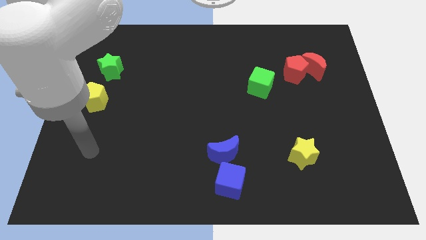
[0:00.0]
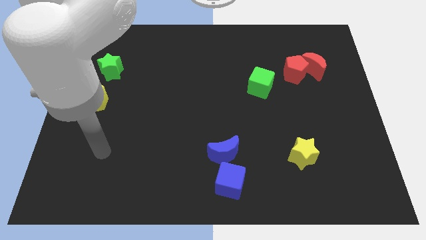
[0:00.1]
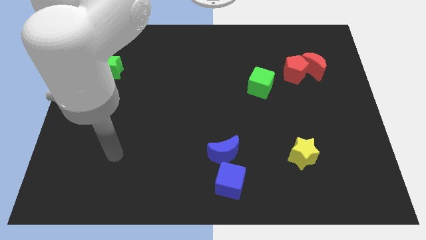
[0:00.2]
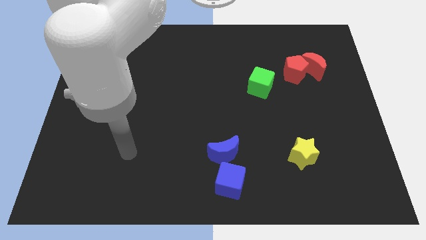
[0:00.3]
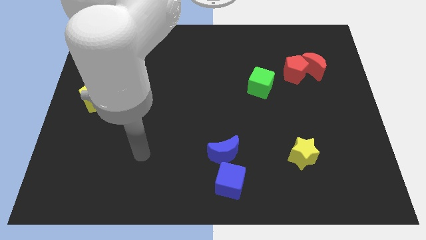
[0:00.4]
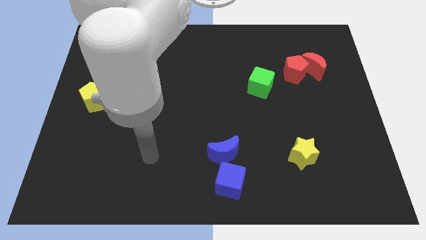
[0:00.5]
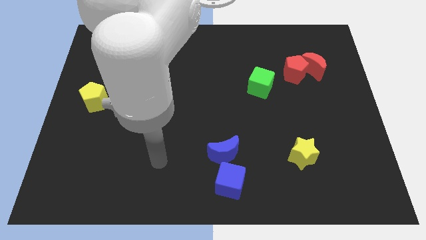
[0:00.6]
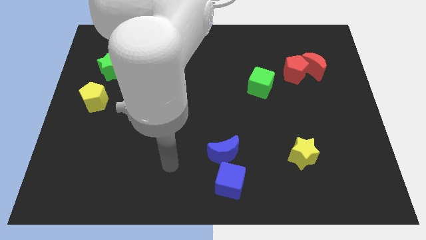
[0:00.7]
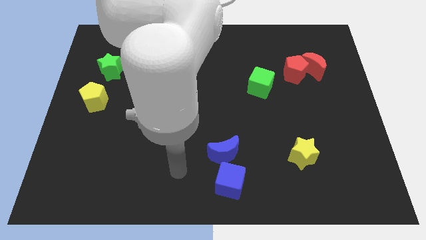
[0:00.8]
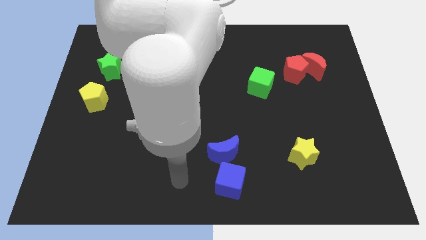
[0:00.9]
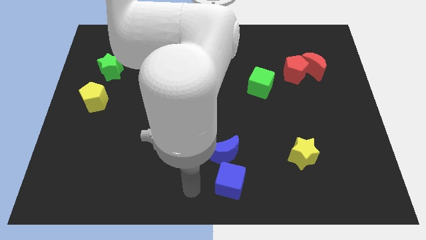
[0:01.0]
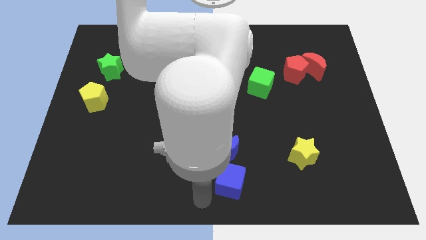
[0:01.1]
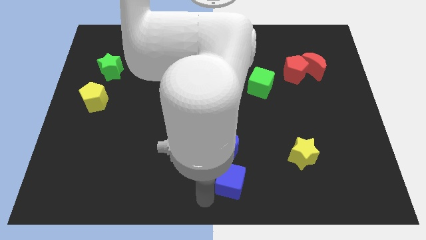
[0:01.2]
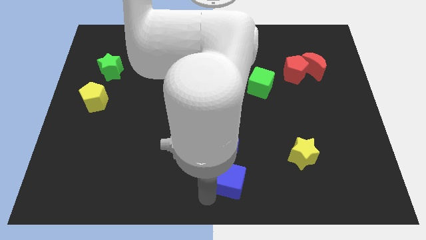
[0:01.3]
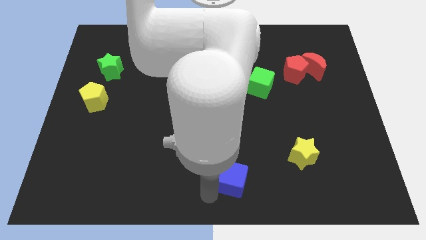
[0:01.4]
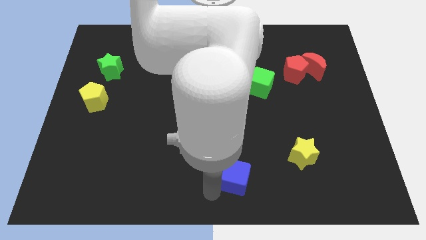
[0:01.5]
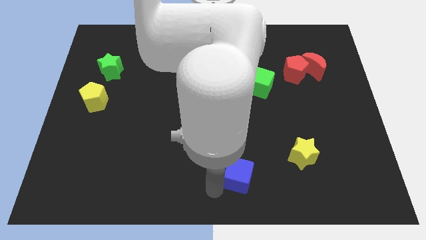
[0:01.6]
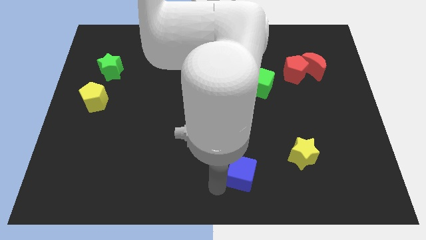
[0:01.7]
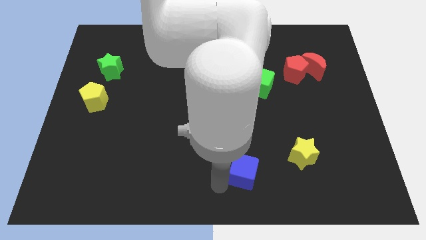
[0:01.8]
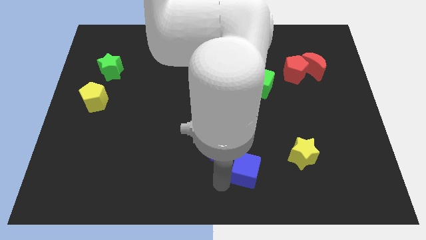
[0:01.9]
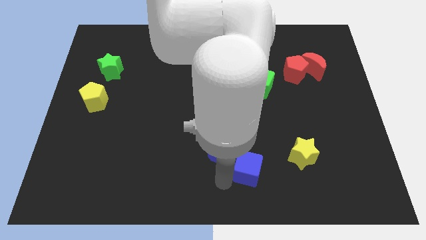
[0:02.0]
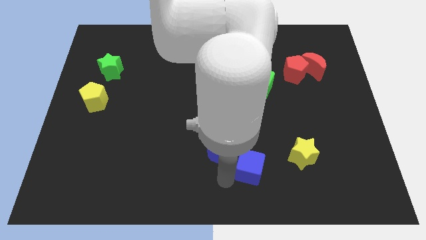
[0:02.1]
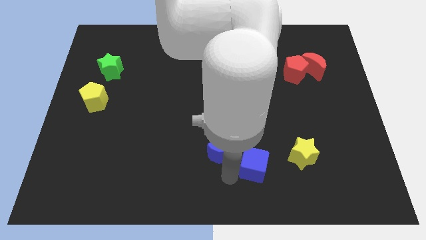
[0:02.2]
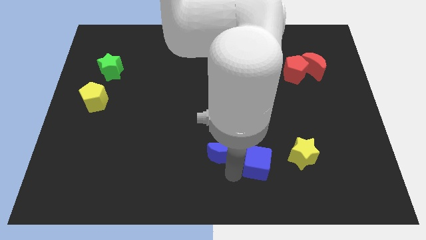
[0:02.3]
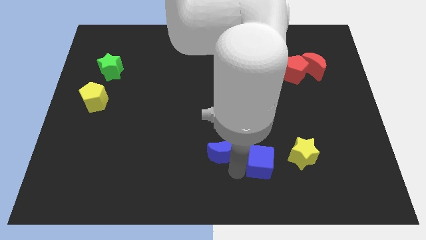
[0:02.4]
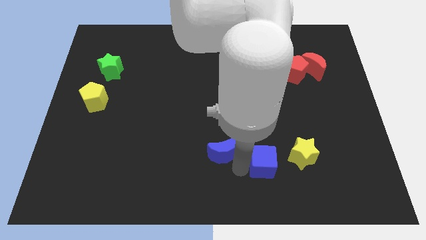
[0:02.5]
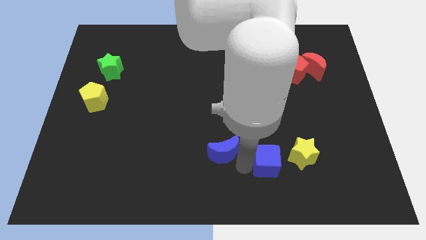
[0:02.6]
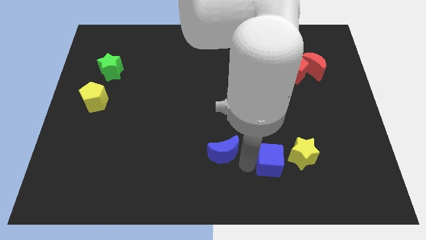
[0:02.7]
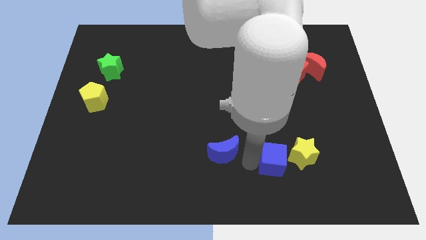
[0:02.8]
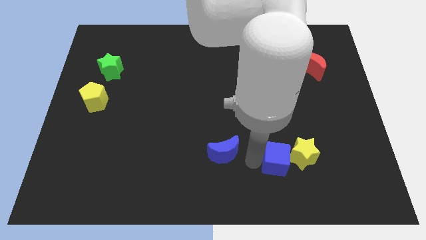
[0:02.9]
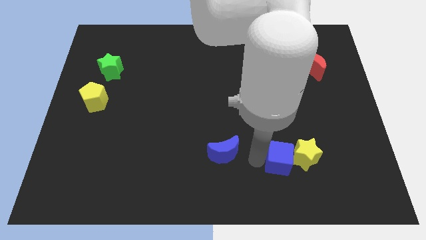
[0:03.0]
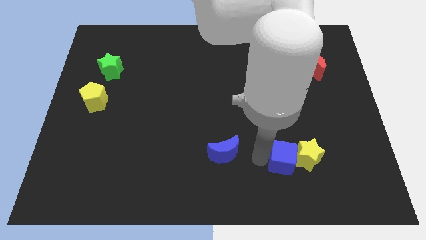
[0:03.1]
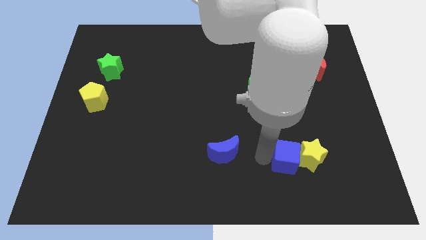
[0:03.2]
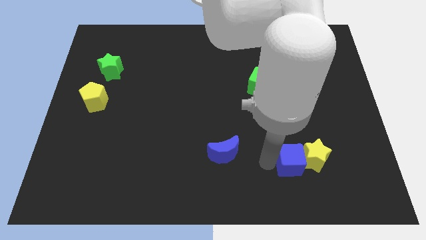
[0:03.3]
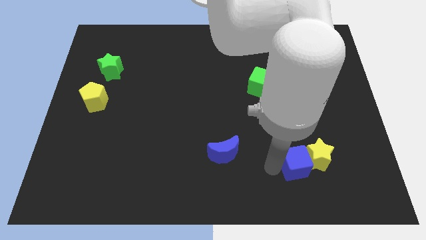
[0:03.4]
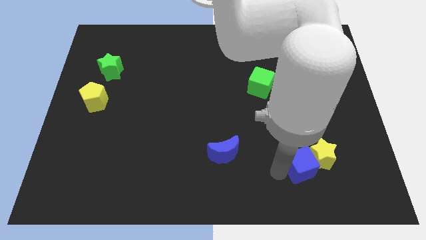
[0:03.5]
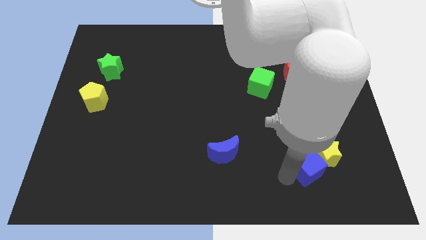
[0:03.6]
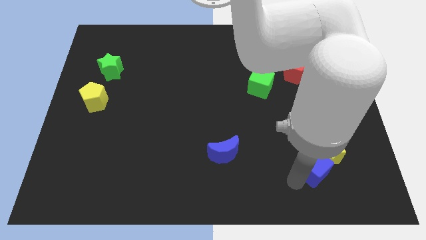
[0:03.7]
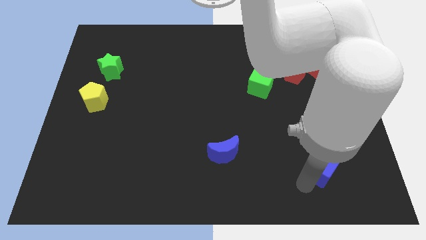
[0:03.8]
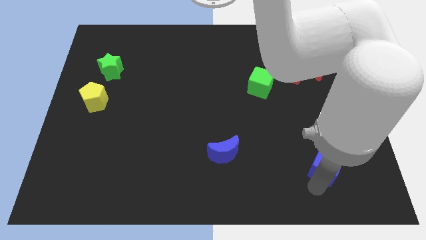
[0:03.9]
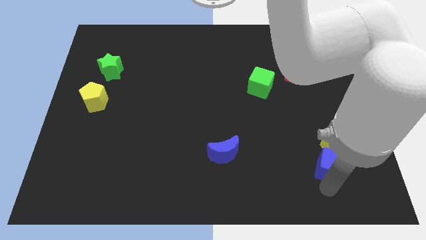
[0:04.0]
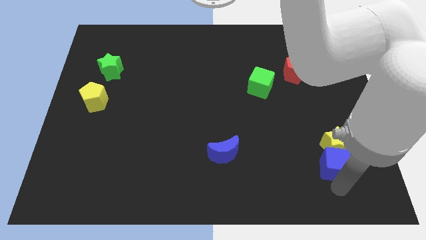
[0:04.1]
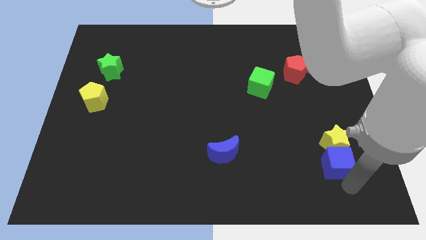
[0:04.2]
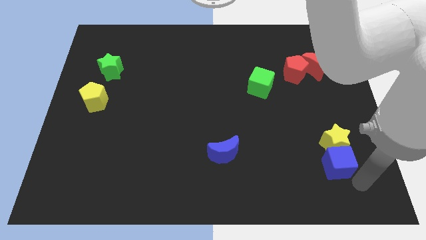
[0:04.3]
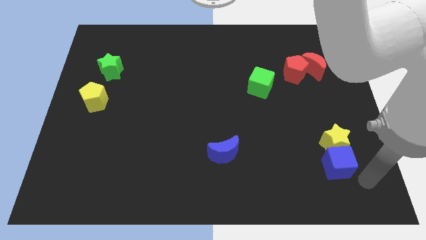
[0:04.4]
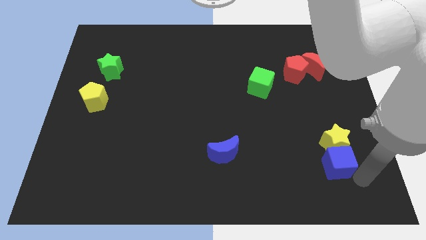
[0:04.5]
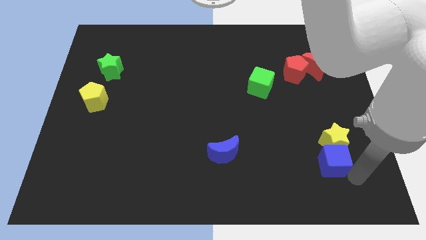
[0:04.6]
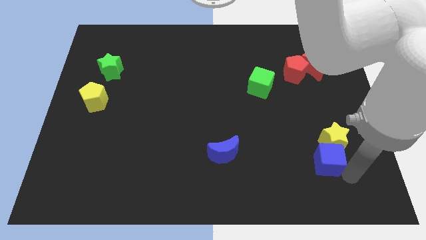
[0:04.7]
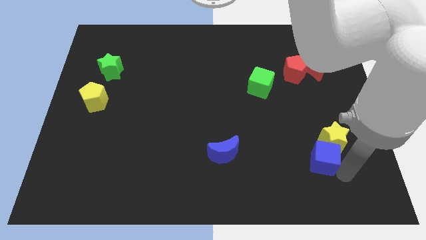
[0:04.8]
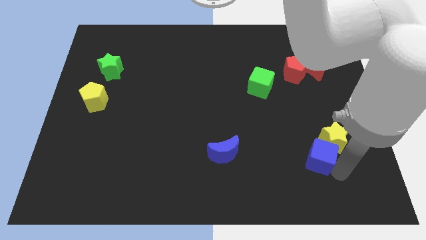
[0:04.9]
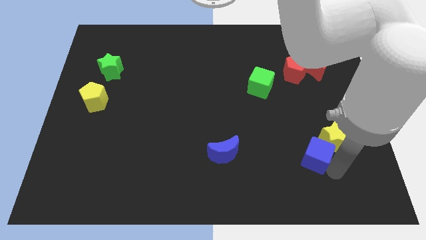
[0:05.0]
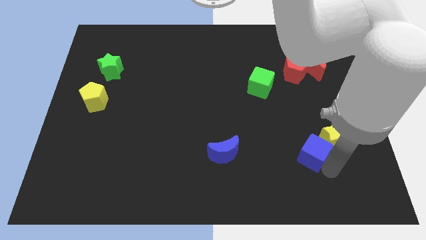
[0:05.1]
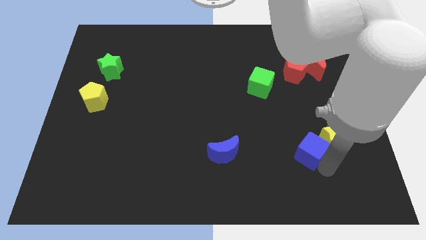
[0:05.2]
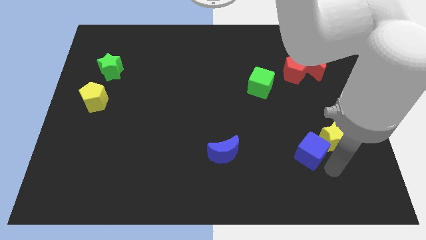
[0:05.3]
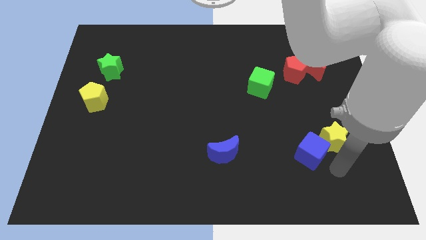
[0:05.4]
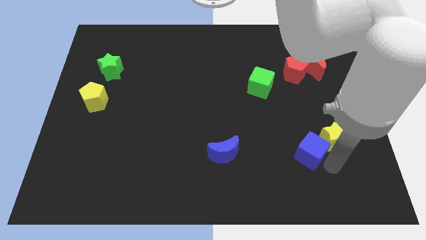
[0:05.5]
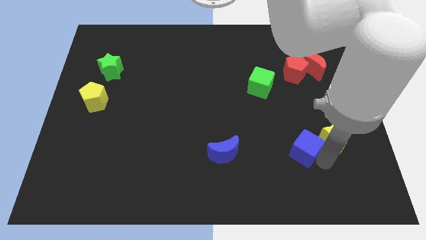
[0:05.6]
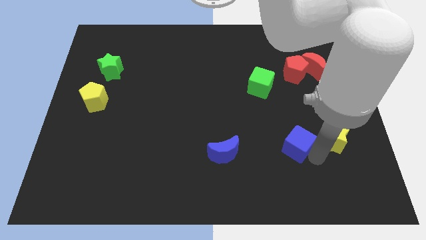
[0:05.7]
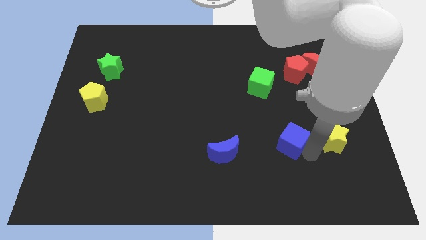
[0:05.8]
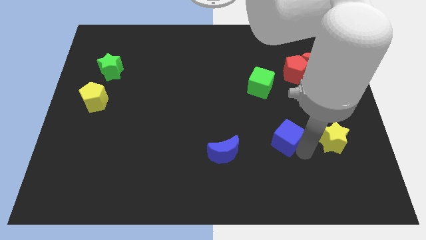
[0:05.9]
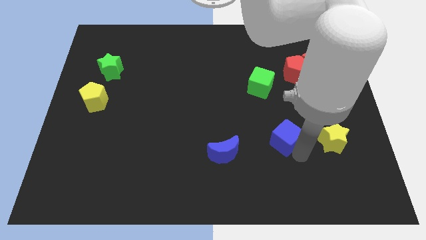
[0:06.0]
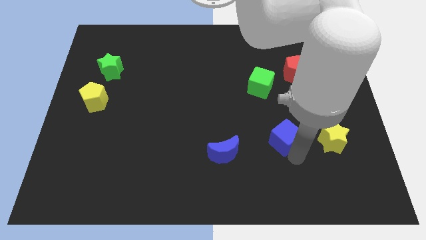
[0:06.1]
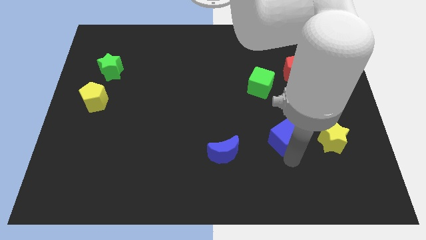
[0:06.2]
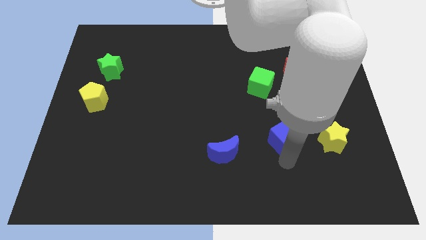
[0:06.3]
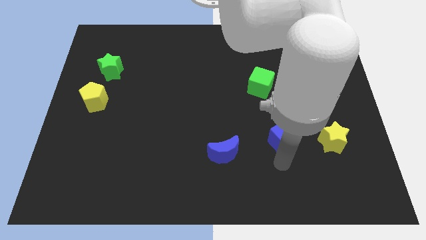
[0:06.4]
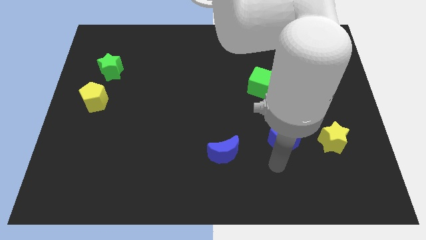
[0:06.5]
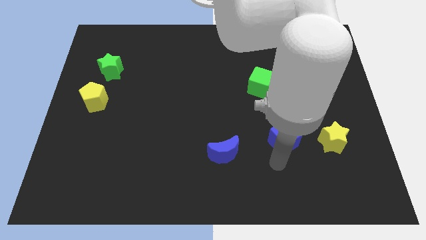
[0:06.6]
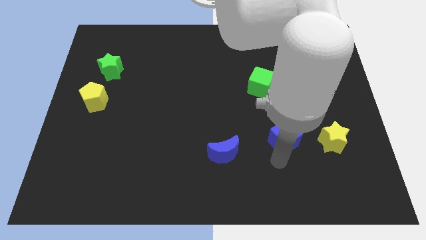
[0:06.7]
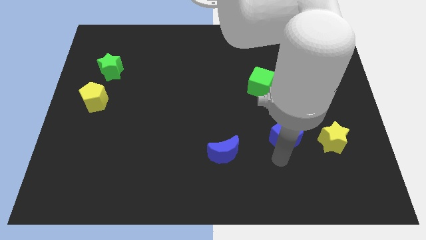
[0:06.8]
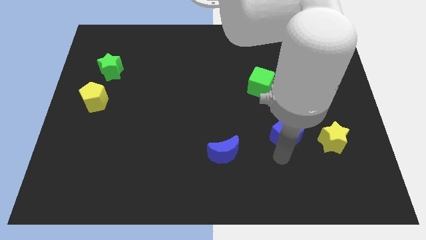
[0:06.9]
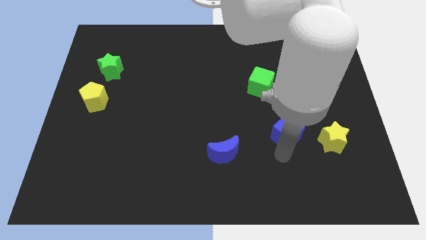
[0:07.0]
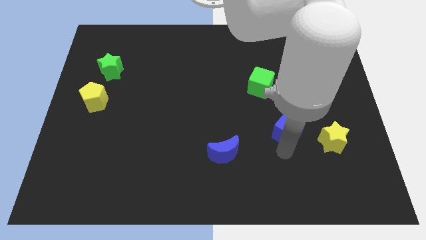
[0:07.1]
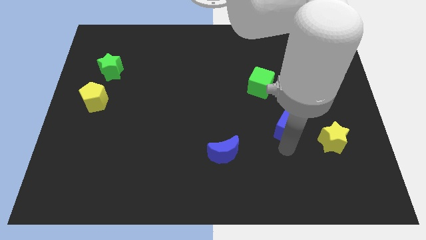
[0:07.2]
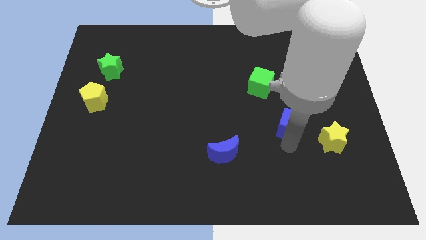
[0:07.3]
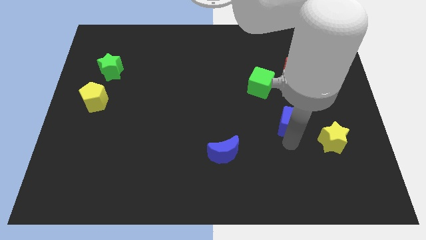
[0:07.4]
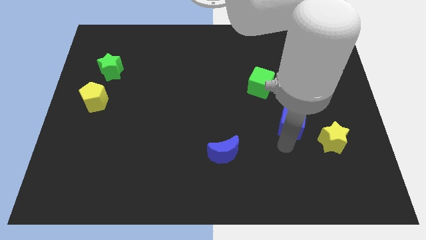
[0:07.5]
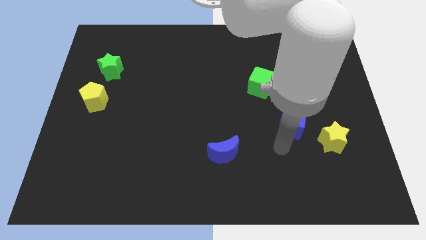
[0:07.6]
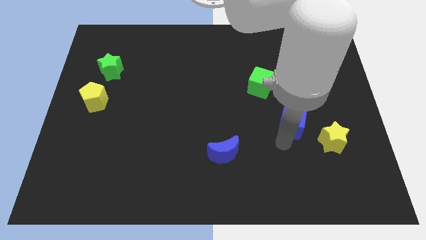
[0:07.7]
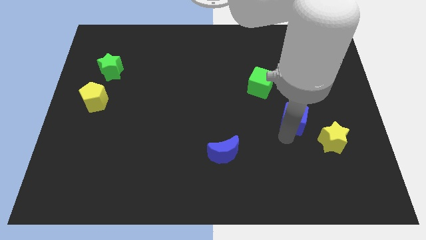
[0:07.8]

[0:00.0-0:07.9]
push the blue cube to the bottom side of the red pentagon
